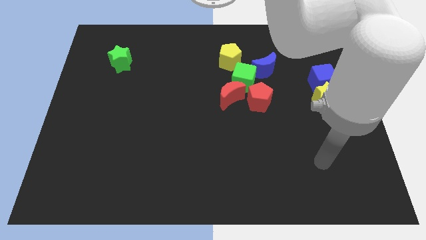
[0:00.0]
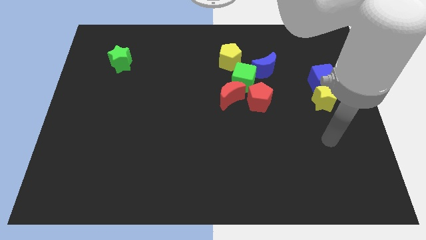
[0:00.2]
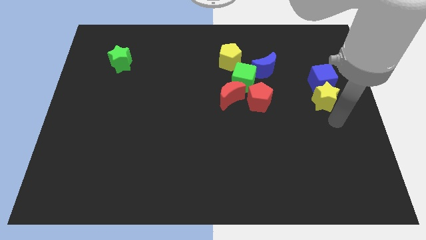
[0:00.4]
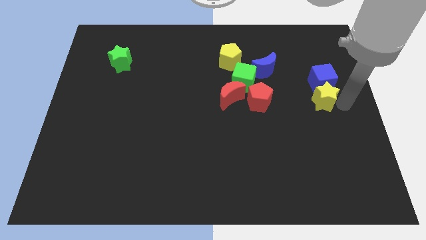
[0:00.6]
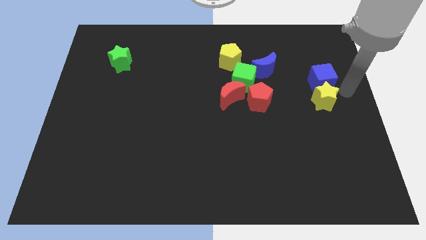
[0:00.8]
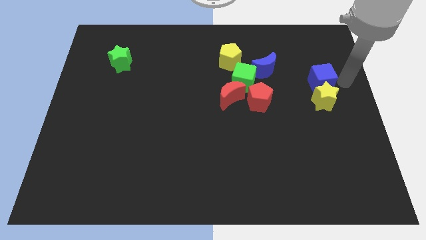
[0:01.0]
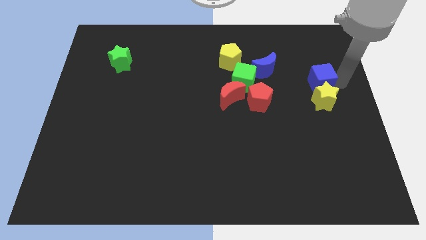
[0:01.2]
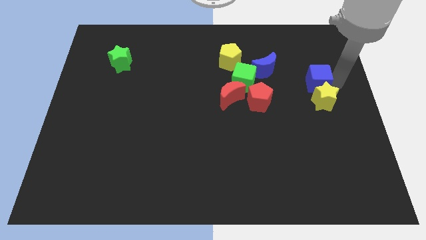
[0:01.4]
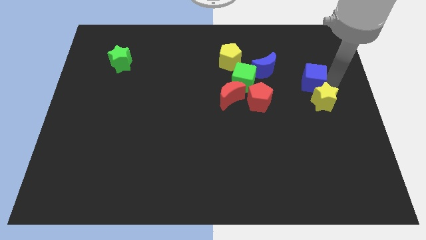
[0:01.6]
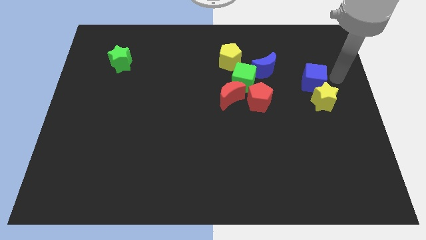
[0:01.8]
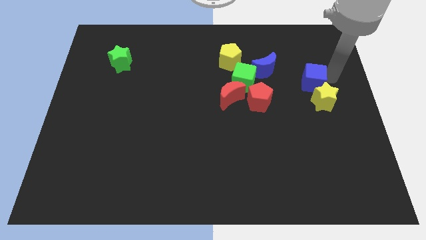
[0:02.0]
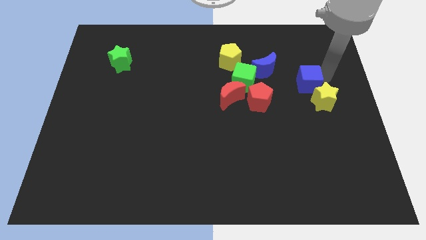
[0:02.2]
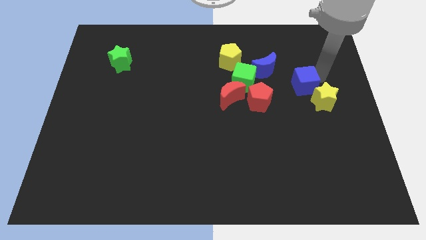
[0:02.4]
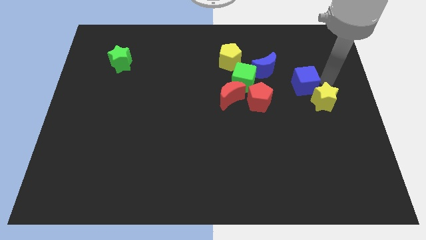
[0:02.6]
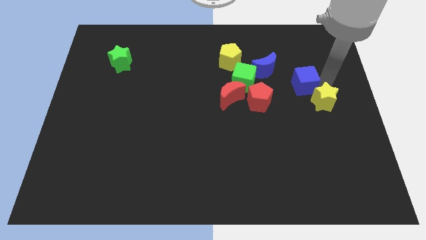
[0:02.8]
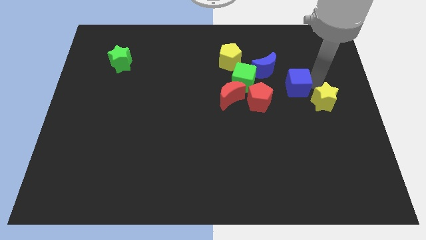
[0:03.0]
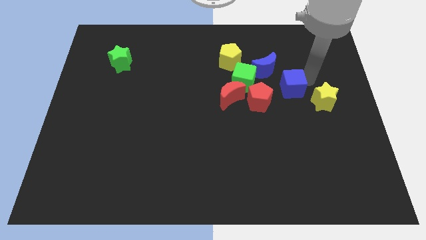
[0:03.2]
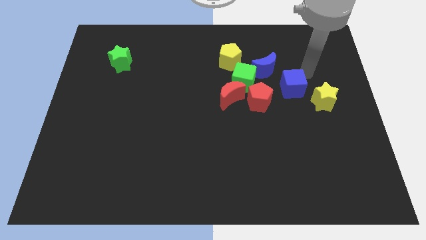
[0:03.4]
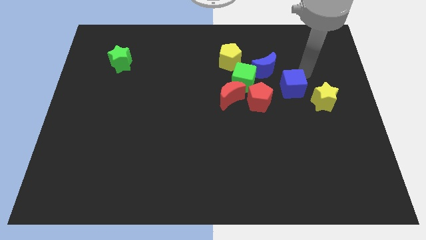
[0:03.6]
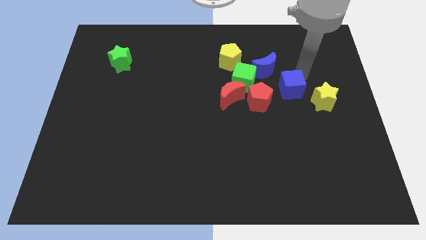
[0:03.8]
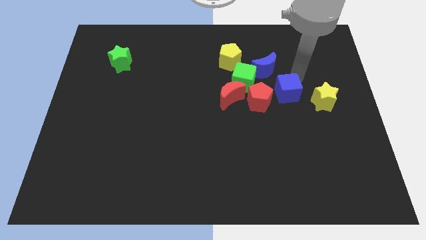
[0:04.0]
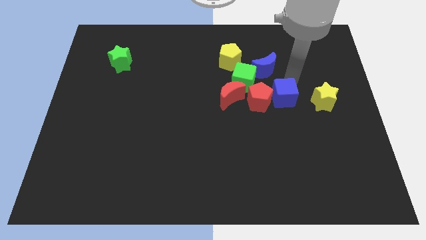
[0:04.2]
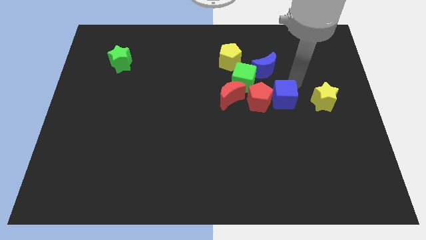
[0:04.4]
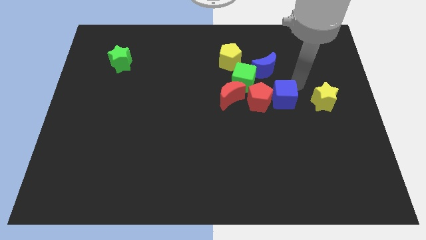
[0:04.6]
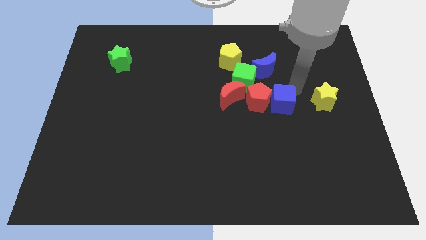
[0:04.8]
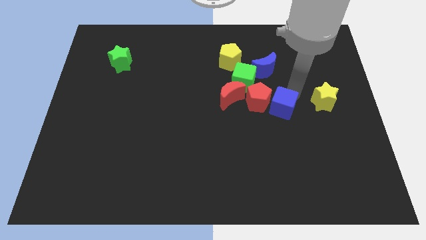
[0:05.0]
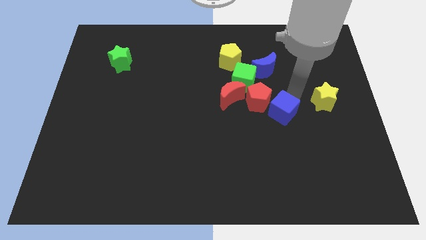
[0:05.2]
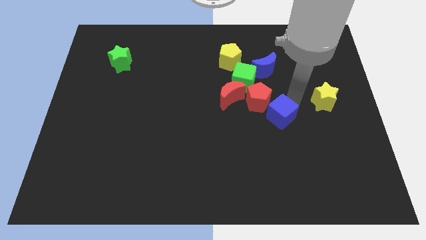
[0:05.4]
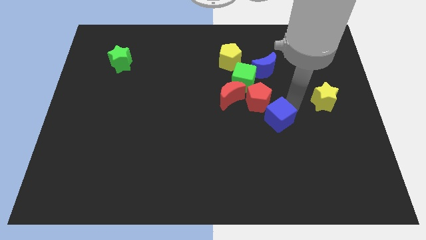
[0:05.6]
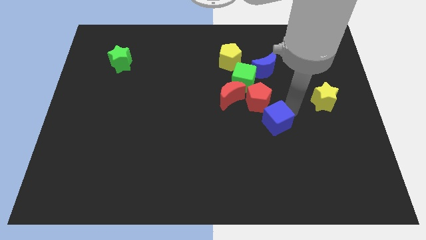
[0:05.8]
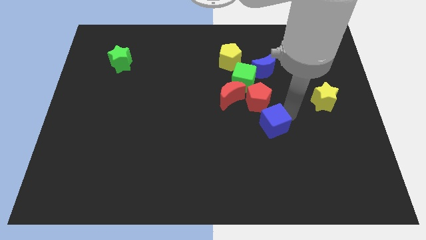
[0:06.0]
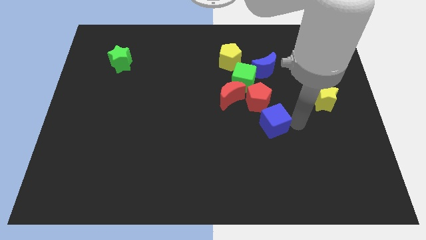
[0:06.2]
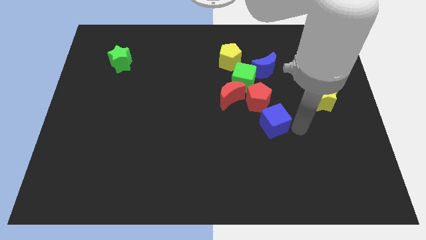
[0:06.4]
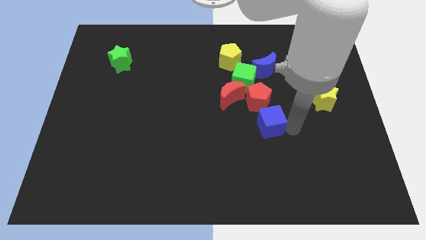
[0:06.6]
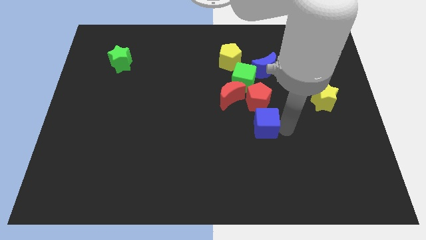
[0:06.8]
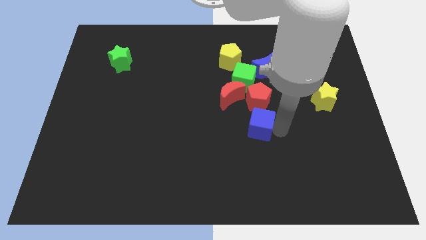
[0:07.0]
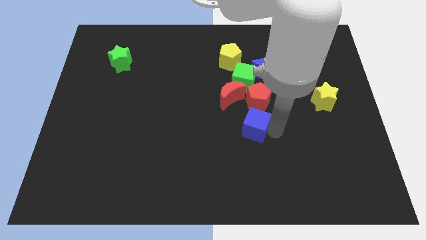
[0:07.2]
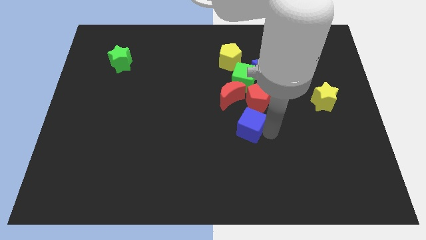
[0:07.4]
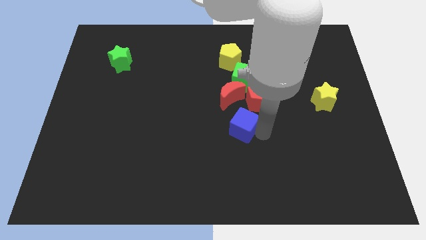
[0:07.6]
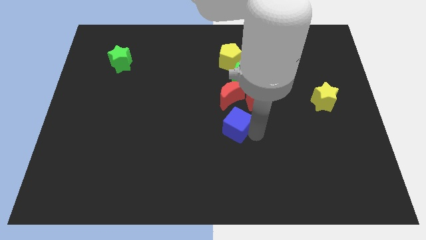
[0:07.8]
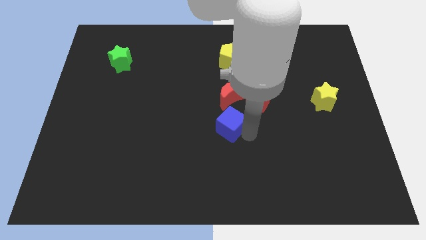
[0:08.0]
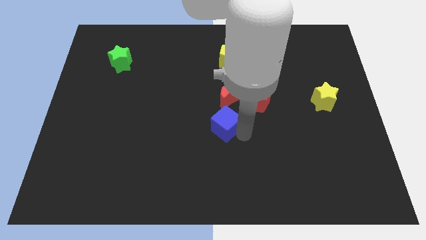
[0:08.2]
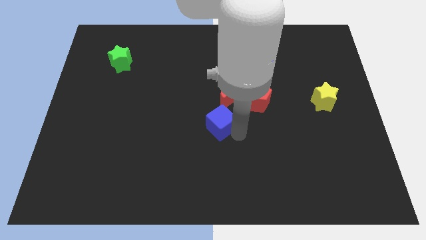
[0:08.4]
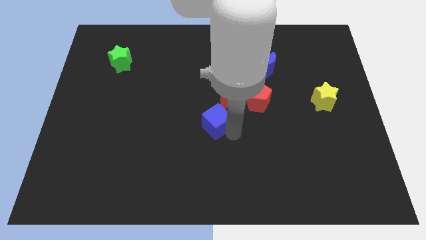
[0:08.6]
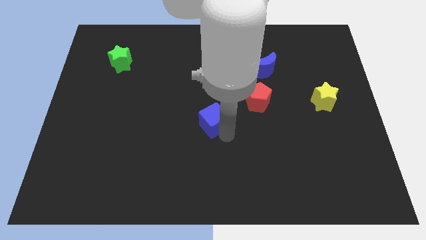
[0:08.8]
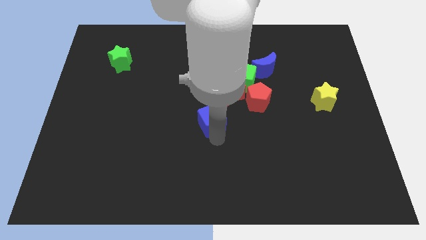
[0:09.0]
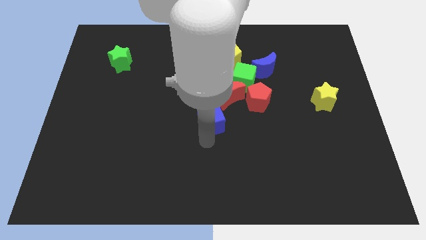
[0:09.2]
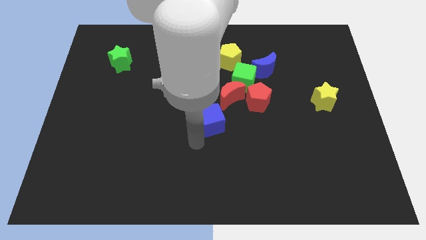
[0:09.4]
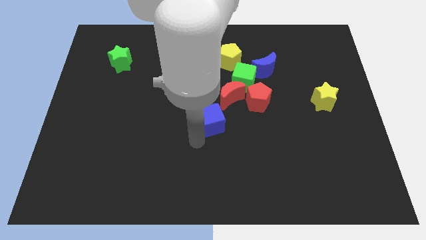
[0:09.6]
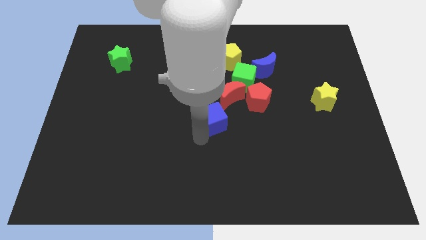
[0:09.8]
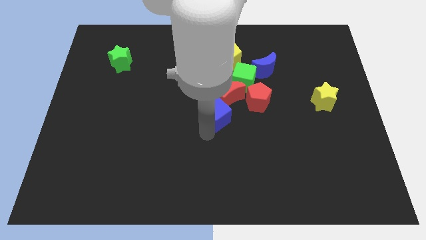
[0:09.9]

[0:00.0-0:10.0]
move the blue cube to the left

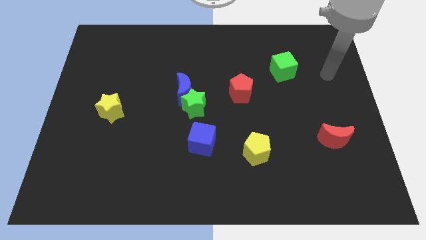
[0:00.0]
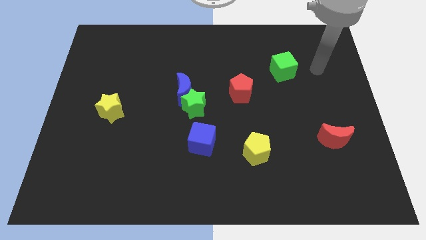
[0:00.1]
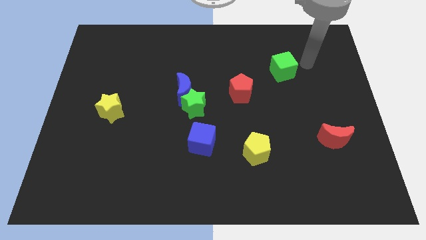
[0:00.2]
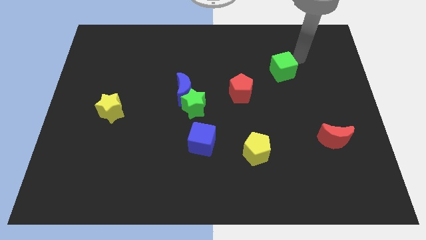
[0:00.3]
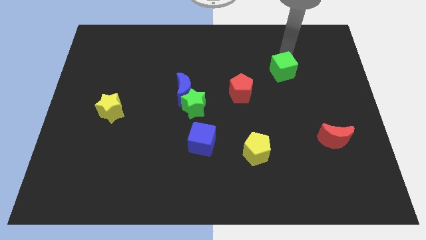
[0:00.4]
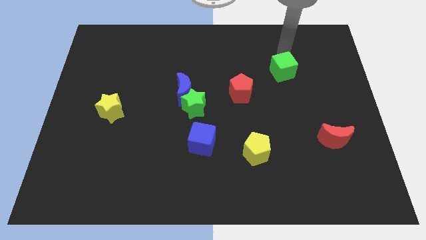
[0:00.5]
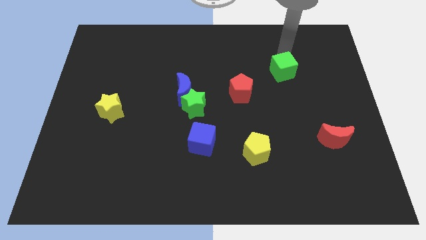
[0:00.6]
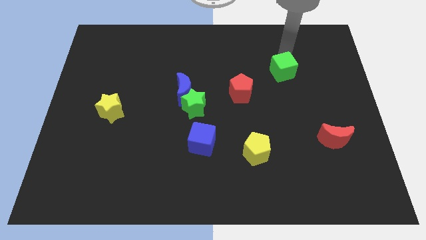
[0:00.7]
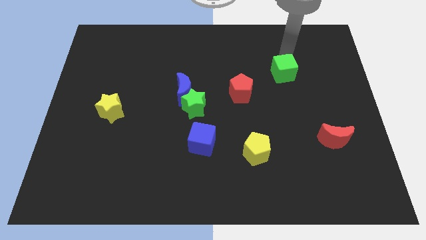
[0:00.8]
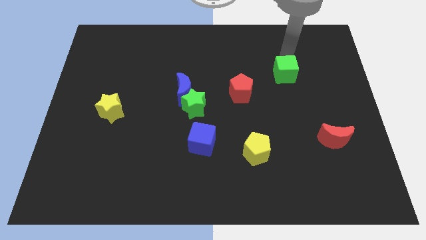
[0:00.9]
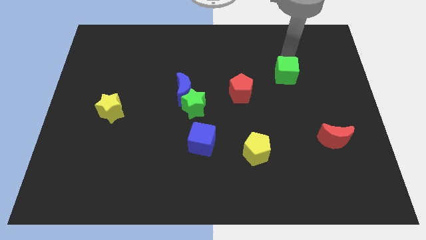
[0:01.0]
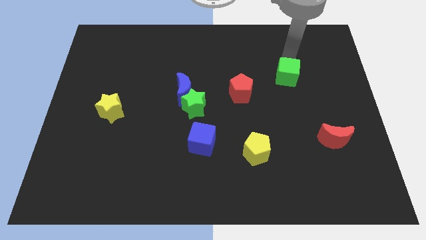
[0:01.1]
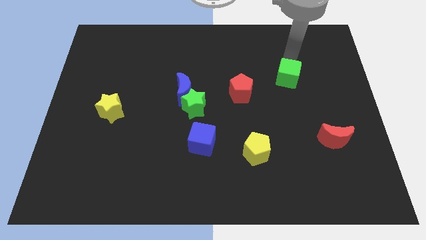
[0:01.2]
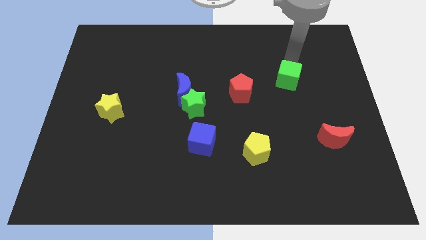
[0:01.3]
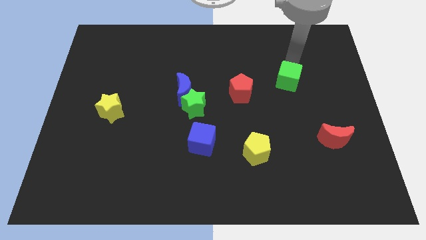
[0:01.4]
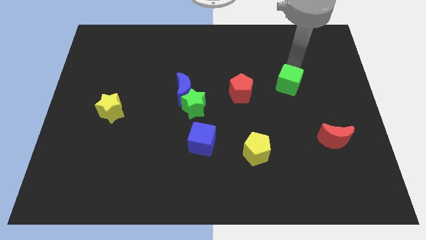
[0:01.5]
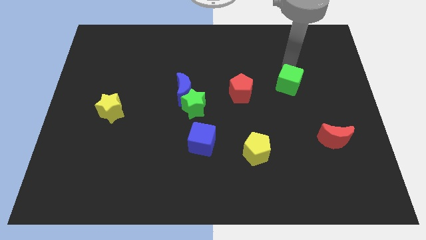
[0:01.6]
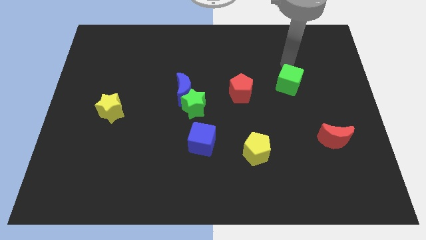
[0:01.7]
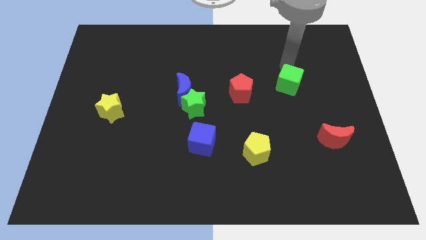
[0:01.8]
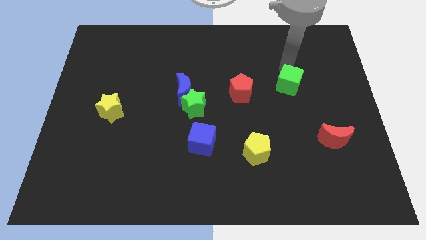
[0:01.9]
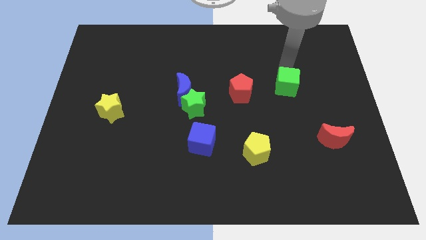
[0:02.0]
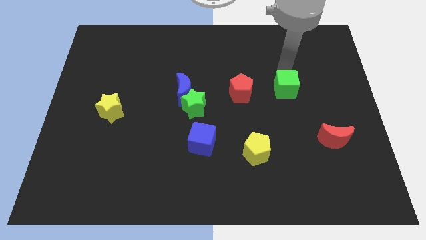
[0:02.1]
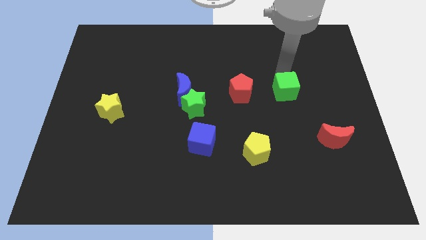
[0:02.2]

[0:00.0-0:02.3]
slightly push the green cube down

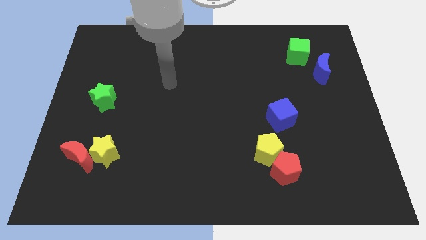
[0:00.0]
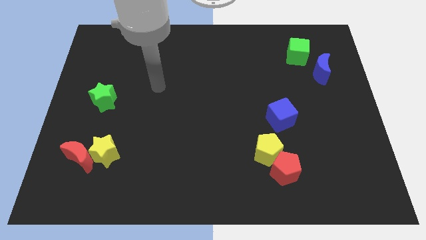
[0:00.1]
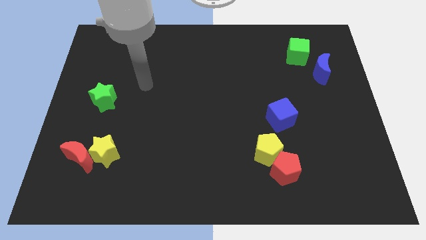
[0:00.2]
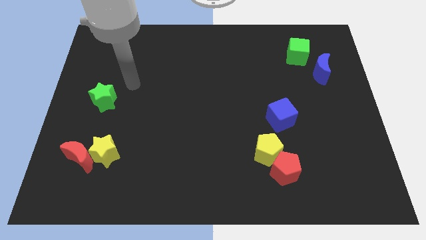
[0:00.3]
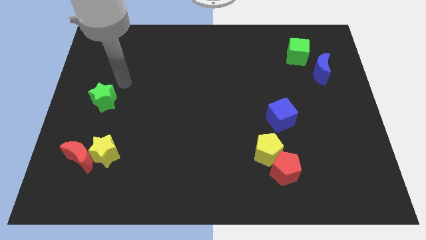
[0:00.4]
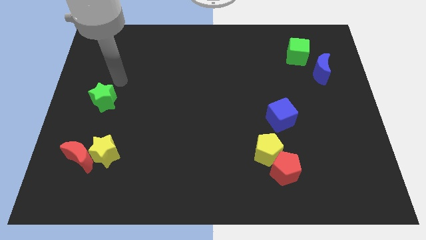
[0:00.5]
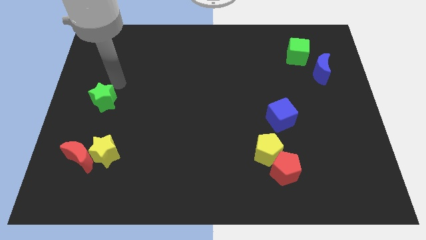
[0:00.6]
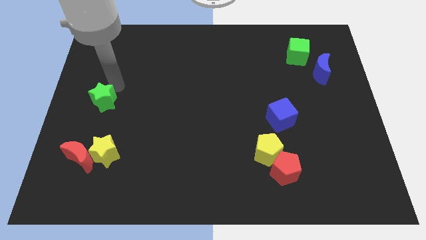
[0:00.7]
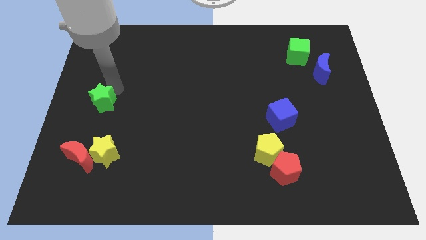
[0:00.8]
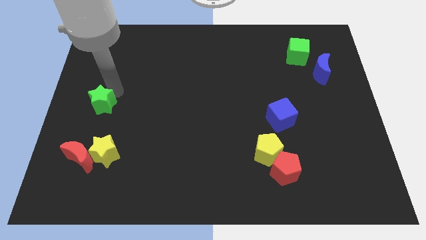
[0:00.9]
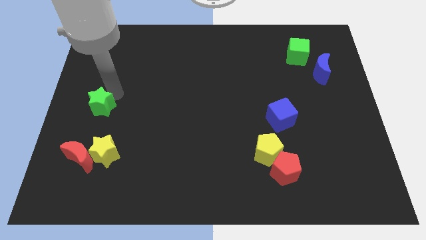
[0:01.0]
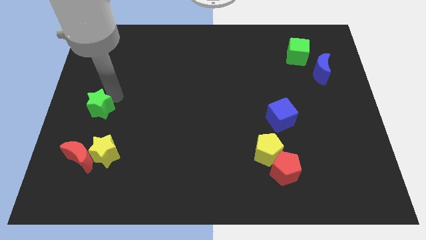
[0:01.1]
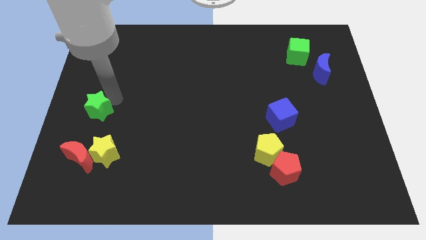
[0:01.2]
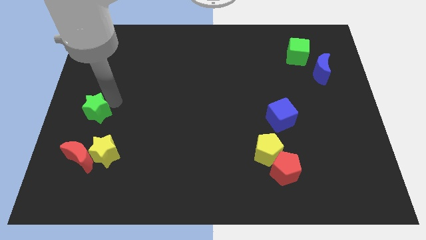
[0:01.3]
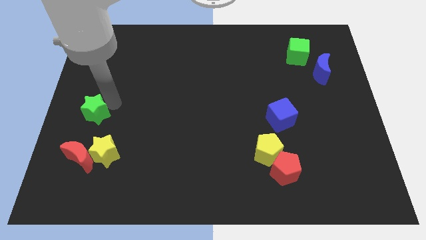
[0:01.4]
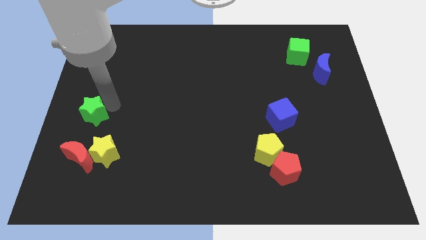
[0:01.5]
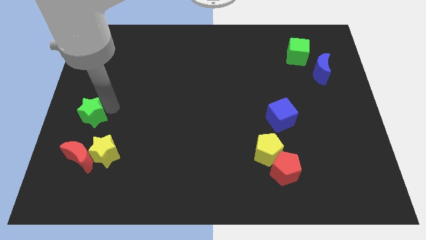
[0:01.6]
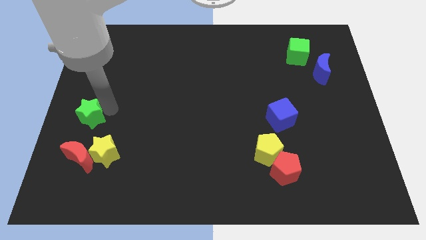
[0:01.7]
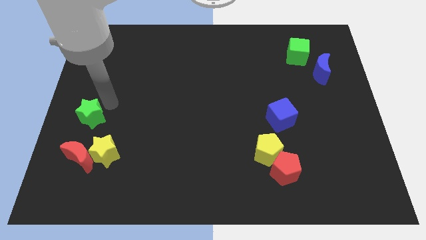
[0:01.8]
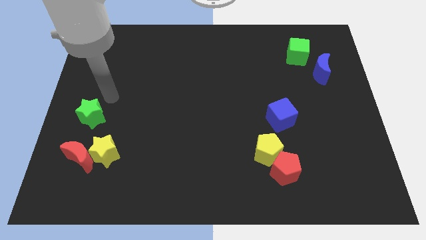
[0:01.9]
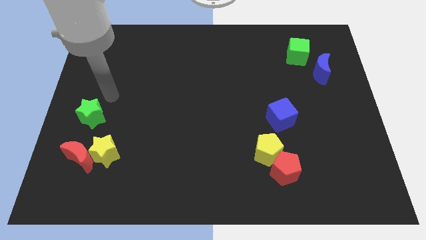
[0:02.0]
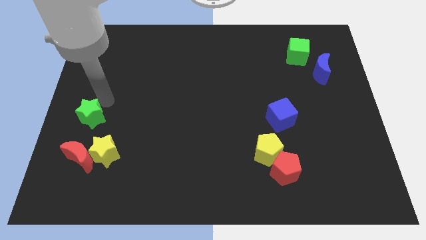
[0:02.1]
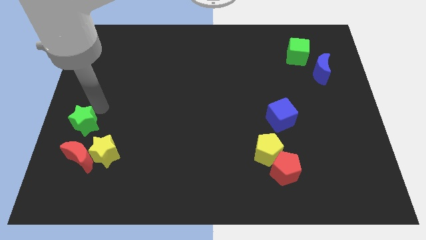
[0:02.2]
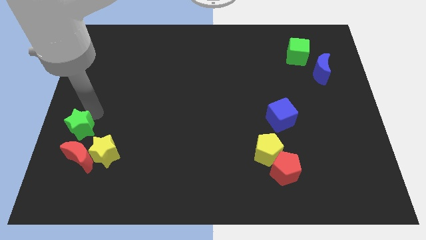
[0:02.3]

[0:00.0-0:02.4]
push the green star downwards a little
